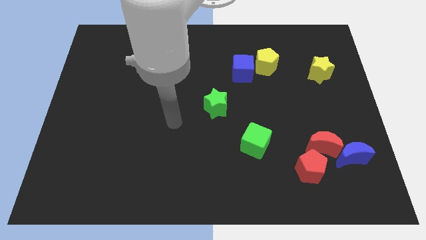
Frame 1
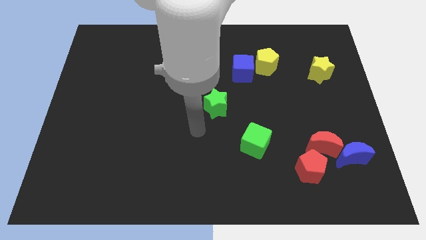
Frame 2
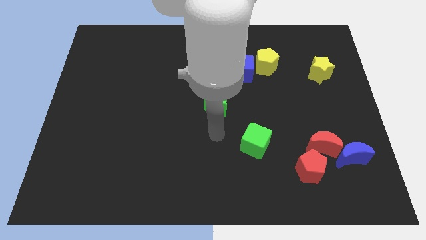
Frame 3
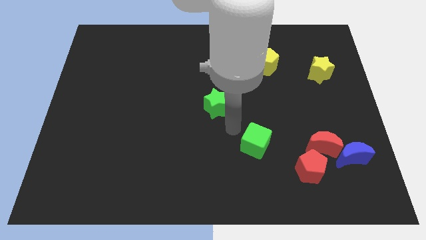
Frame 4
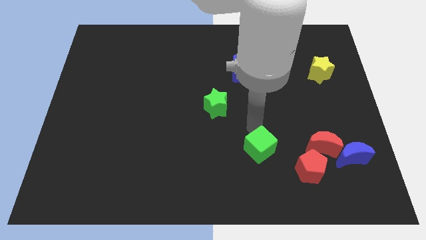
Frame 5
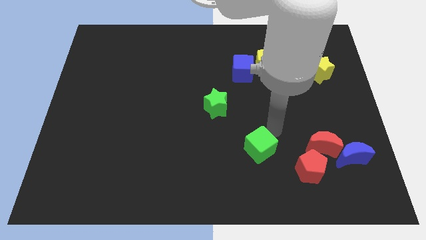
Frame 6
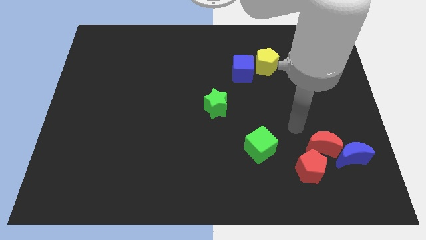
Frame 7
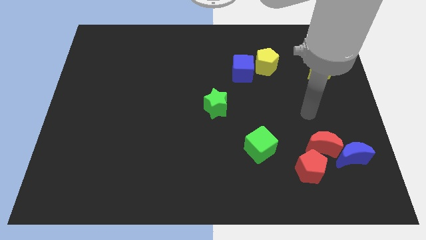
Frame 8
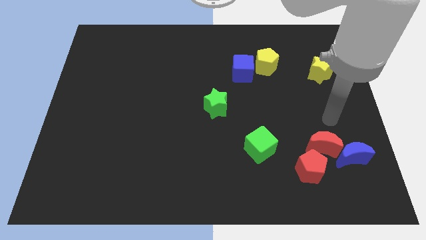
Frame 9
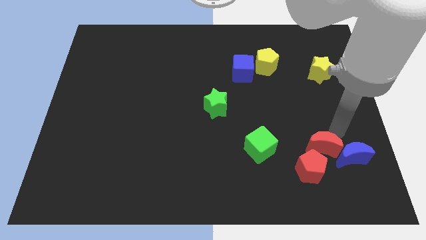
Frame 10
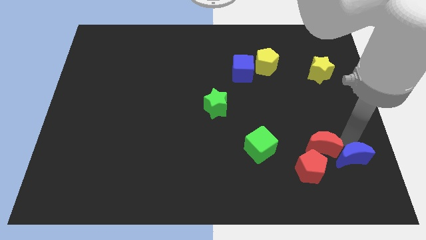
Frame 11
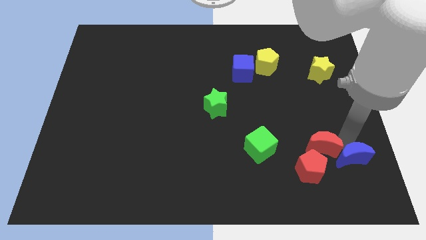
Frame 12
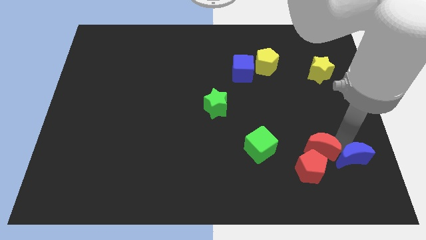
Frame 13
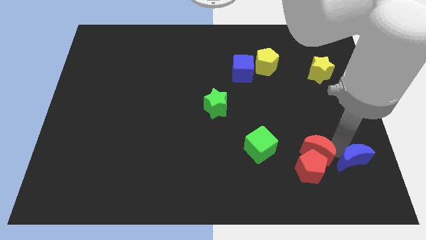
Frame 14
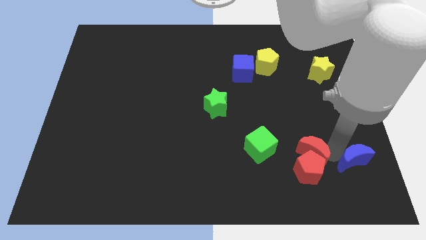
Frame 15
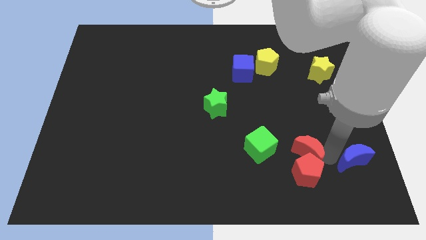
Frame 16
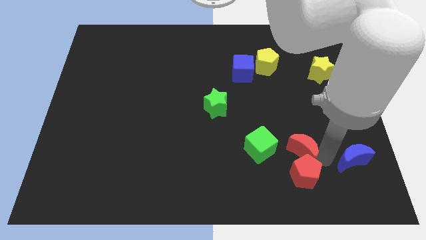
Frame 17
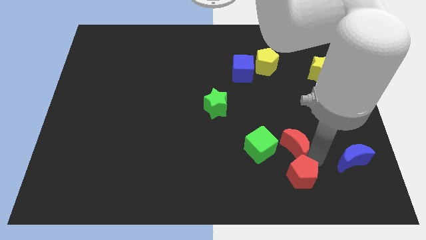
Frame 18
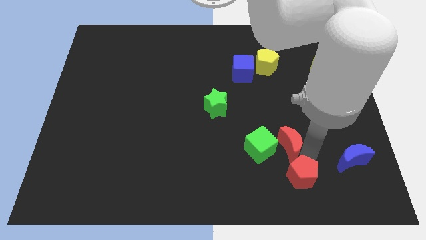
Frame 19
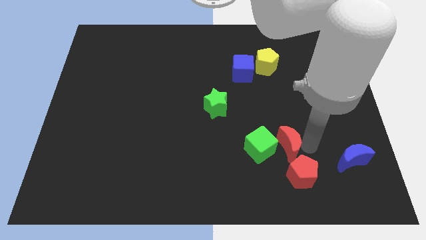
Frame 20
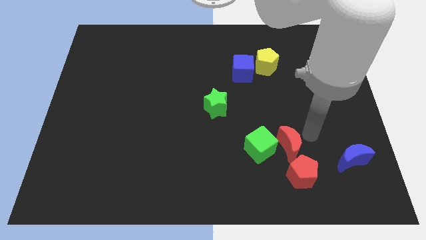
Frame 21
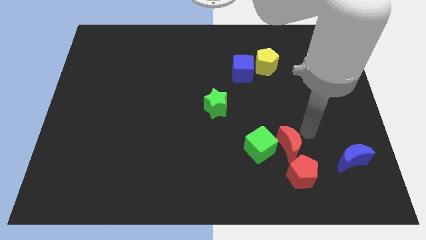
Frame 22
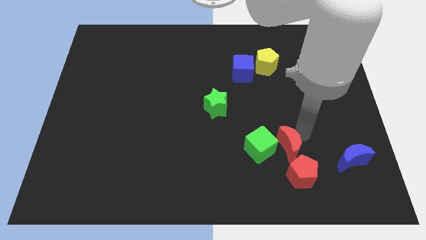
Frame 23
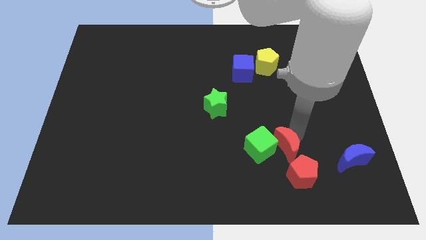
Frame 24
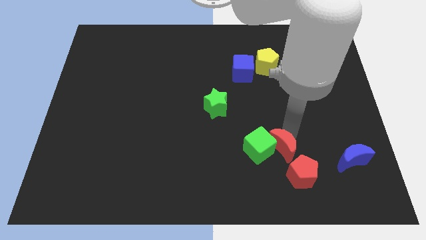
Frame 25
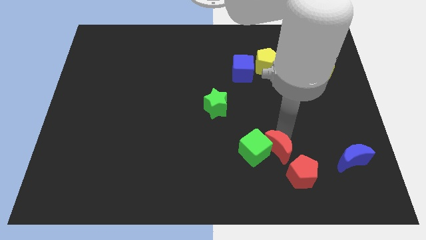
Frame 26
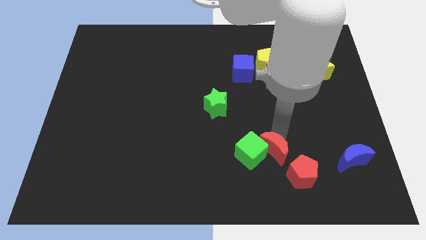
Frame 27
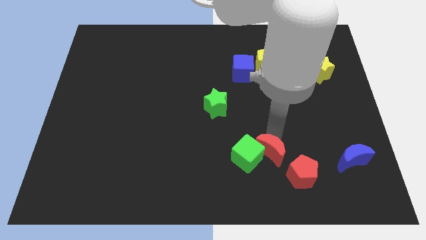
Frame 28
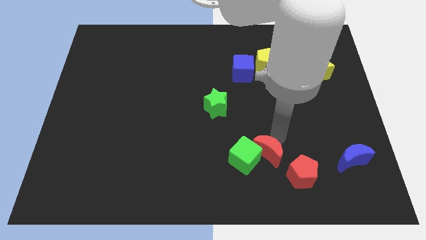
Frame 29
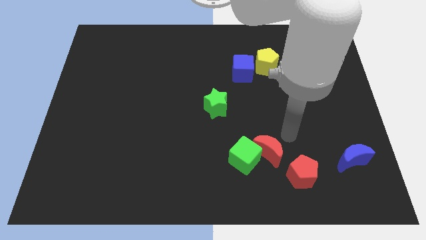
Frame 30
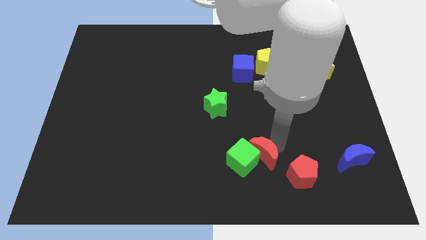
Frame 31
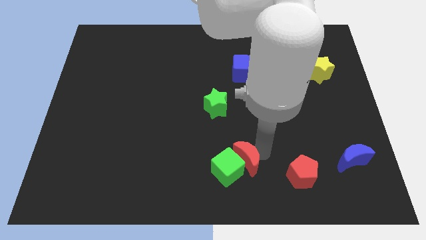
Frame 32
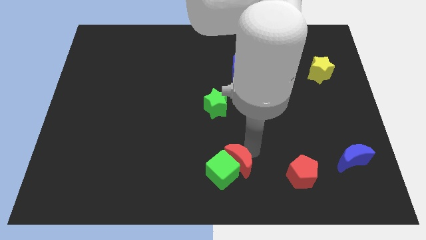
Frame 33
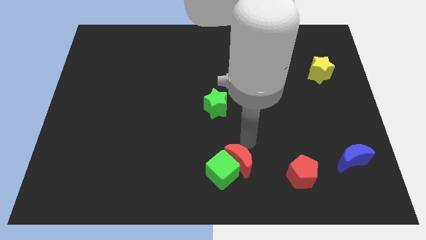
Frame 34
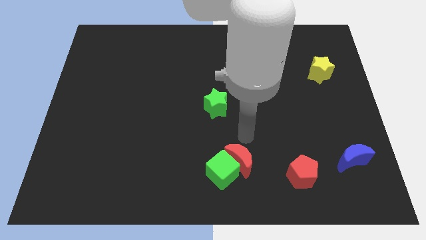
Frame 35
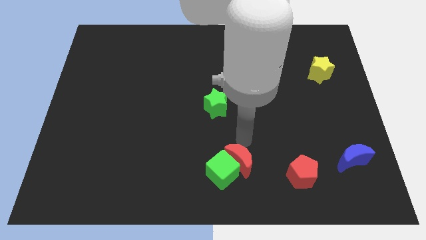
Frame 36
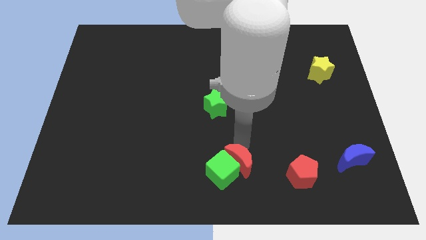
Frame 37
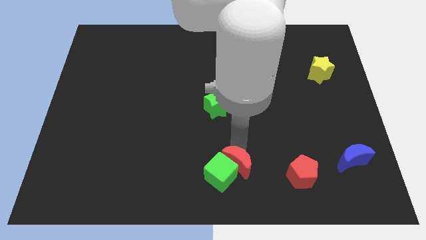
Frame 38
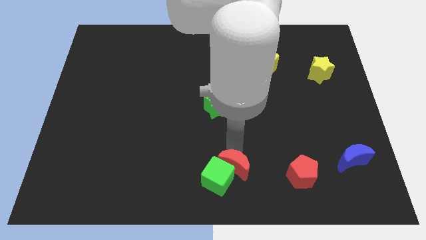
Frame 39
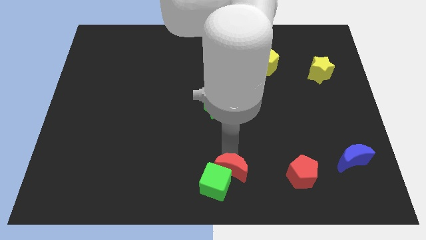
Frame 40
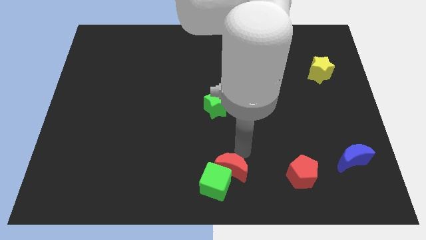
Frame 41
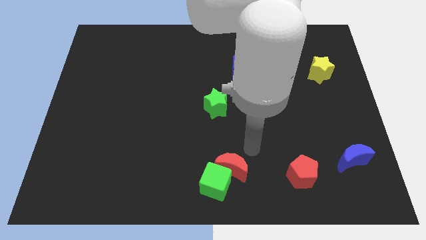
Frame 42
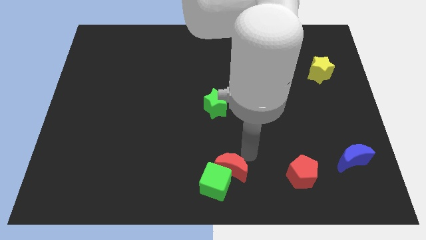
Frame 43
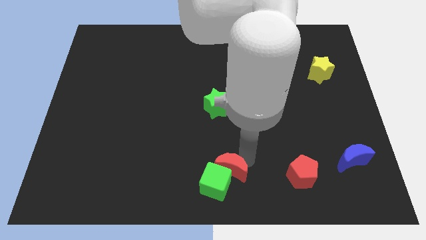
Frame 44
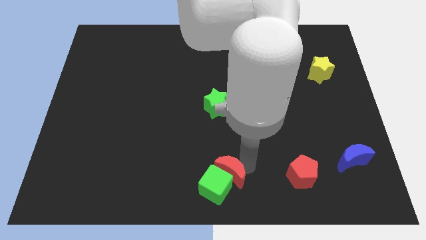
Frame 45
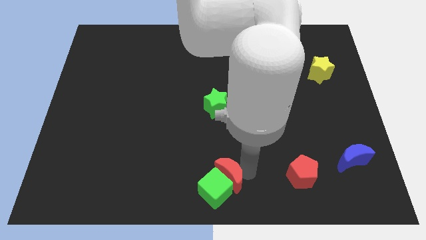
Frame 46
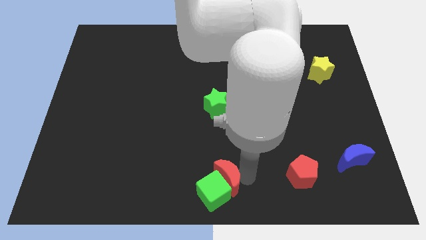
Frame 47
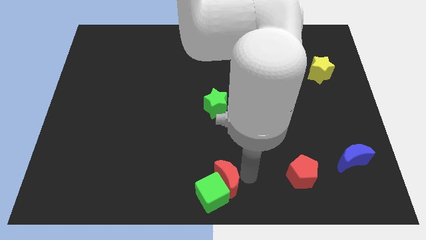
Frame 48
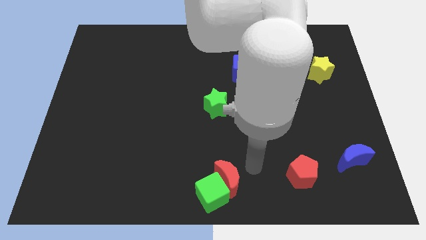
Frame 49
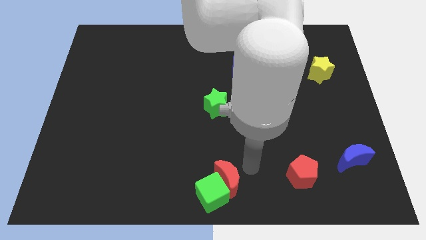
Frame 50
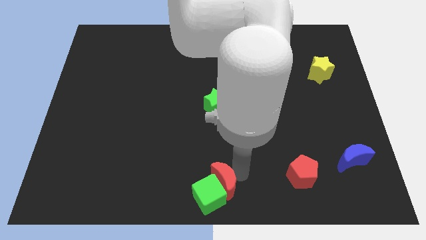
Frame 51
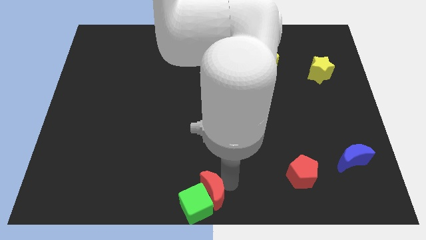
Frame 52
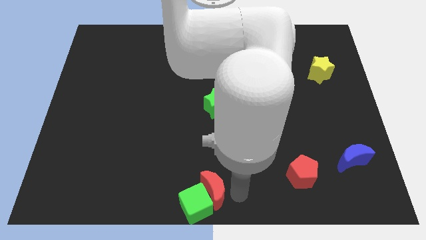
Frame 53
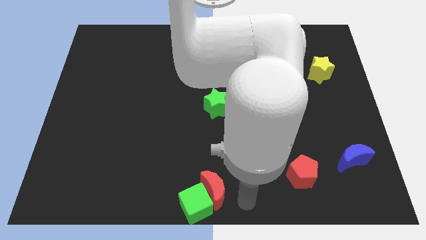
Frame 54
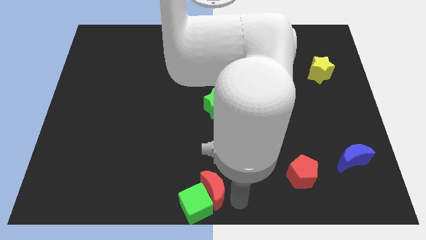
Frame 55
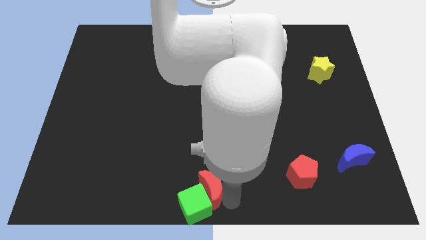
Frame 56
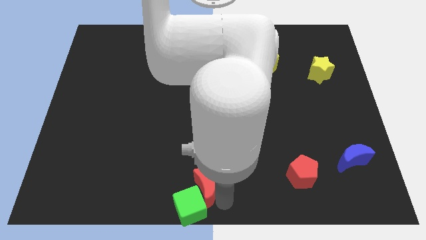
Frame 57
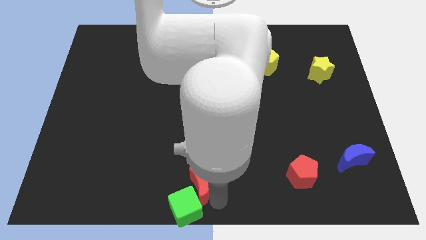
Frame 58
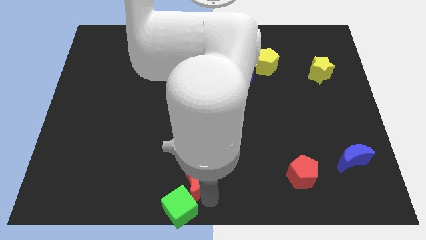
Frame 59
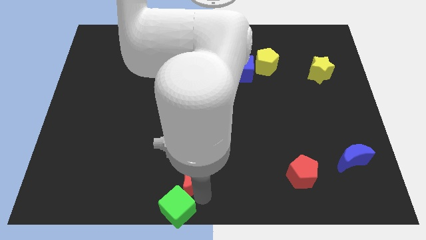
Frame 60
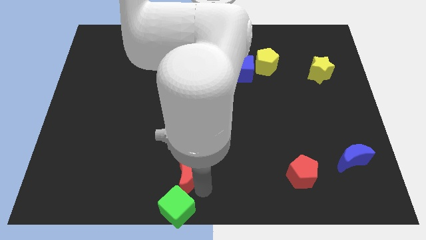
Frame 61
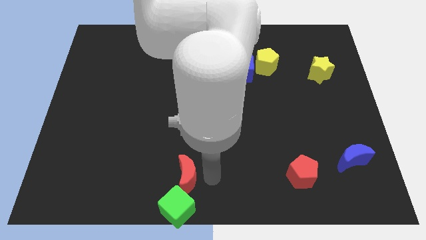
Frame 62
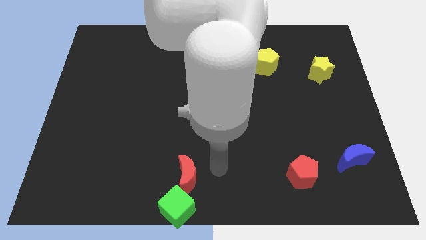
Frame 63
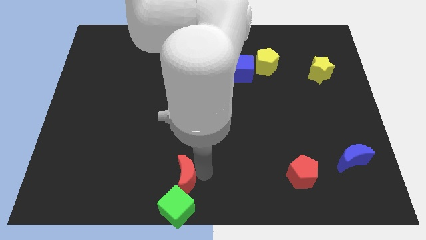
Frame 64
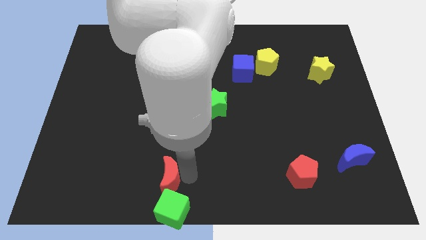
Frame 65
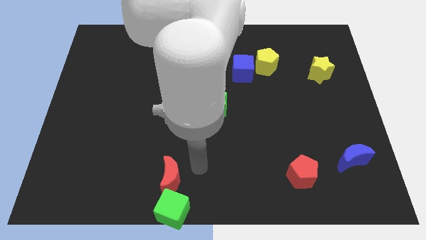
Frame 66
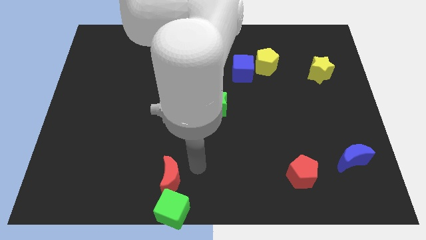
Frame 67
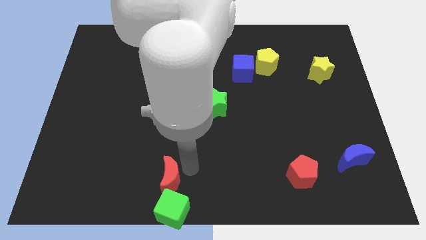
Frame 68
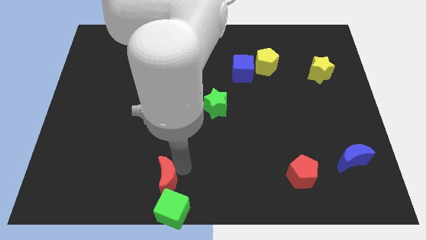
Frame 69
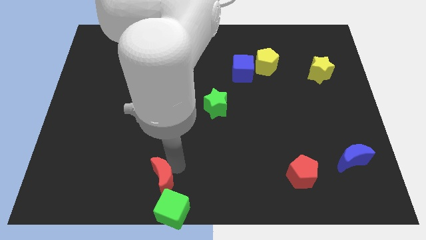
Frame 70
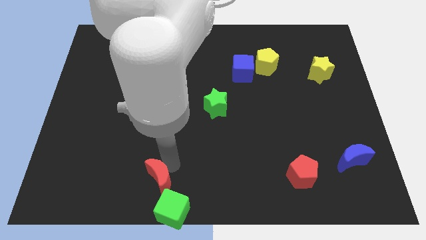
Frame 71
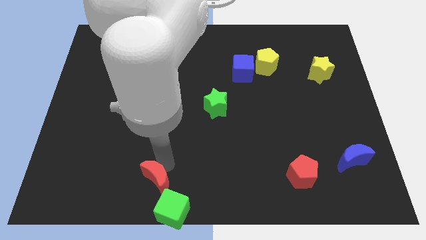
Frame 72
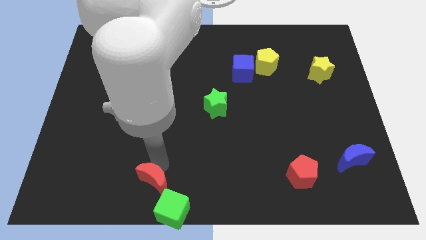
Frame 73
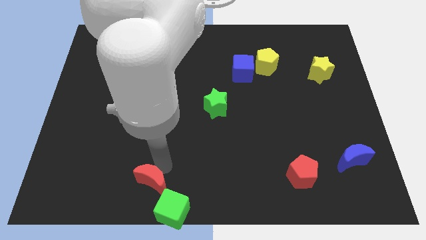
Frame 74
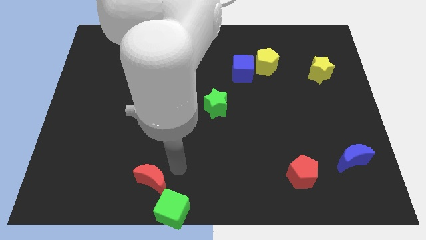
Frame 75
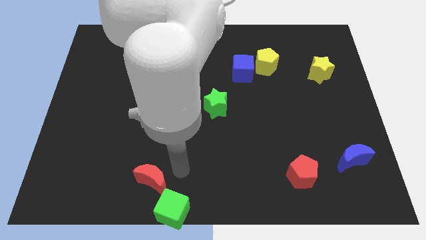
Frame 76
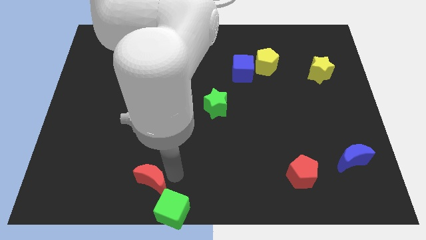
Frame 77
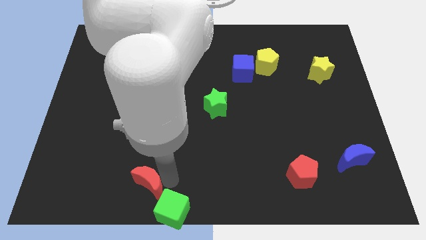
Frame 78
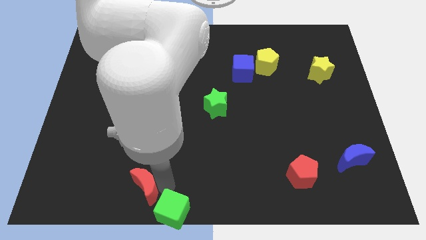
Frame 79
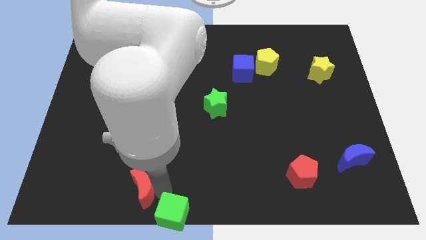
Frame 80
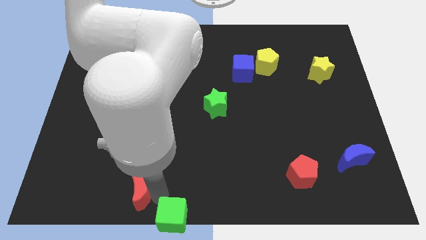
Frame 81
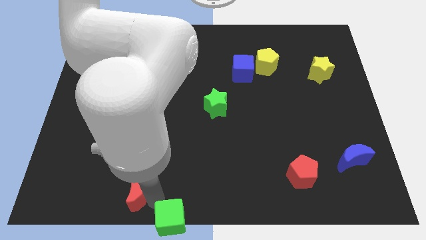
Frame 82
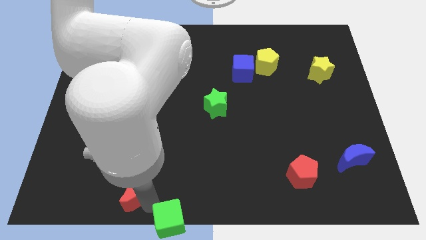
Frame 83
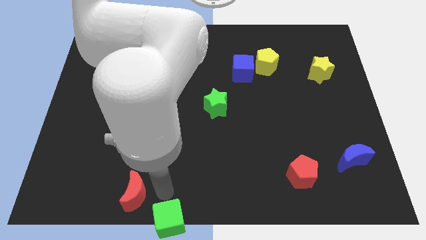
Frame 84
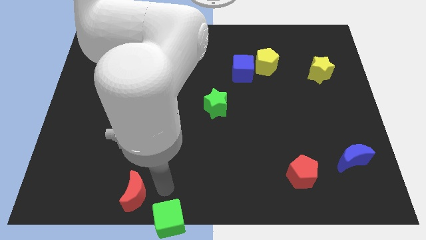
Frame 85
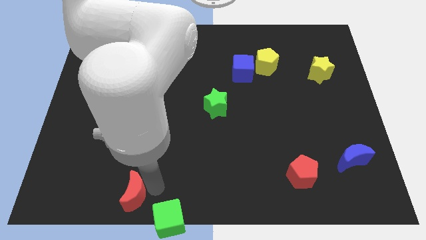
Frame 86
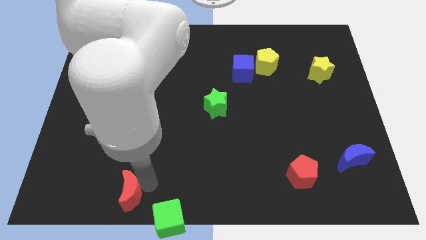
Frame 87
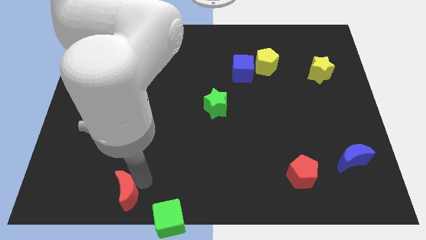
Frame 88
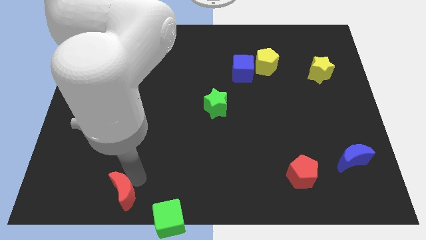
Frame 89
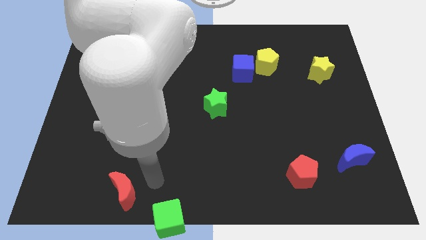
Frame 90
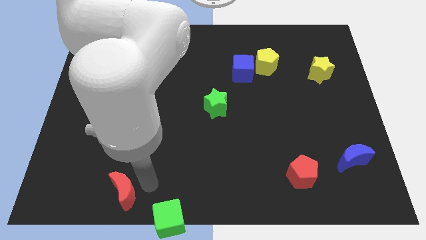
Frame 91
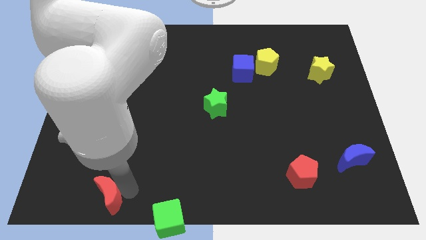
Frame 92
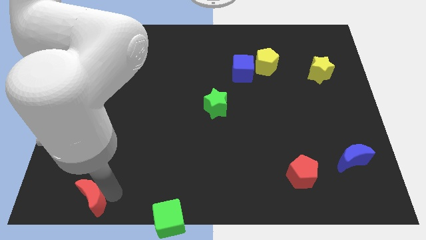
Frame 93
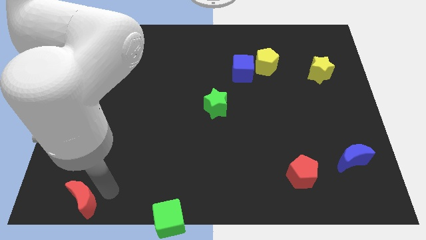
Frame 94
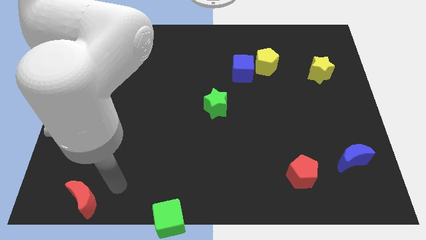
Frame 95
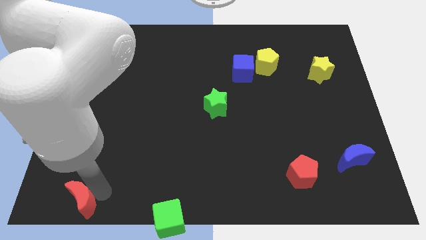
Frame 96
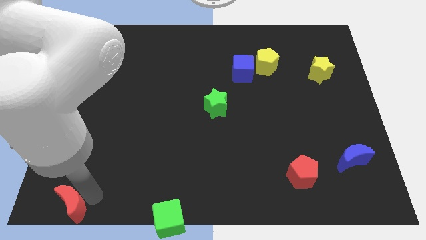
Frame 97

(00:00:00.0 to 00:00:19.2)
move the red moon to the bottom left
